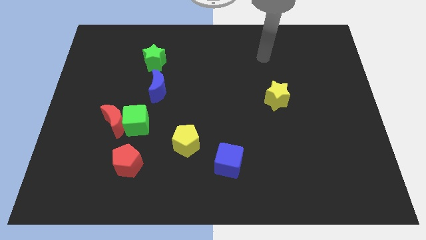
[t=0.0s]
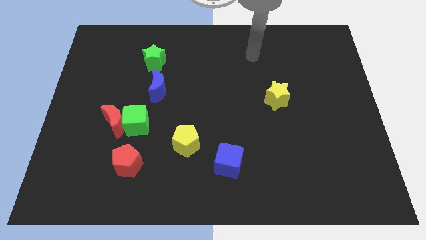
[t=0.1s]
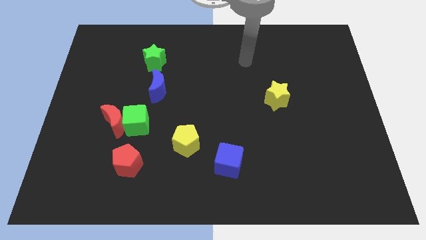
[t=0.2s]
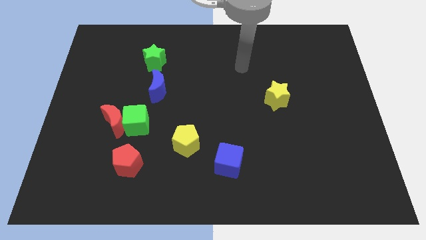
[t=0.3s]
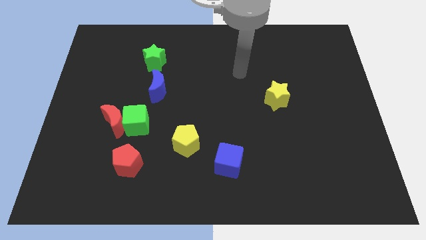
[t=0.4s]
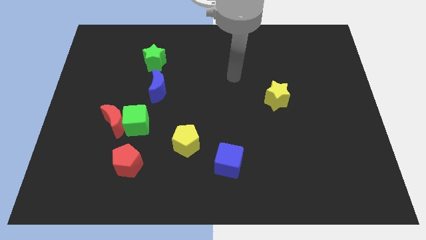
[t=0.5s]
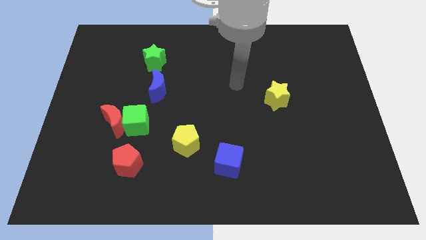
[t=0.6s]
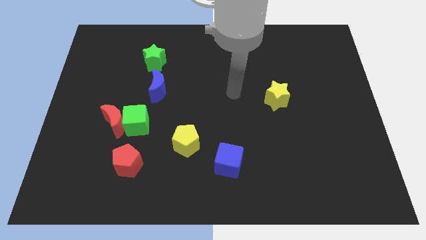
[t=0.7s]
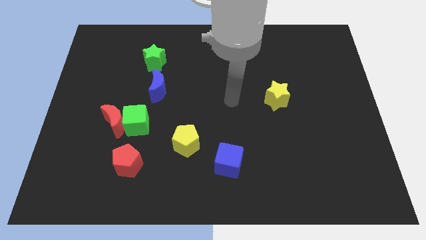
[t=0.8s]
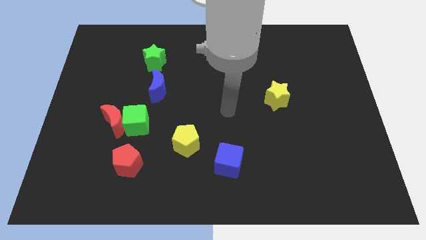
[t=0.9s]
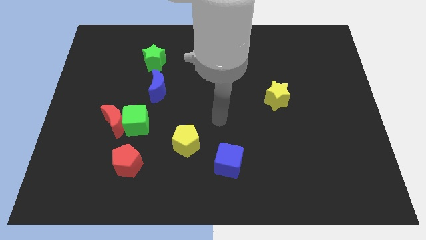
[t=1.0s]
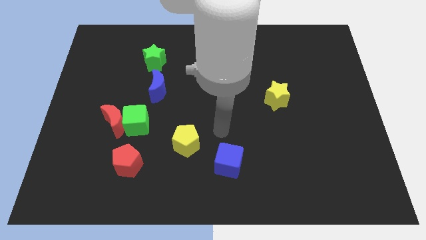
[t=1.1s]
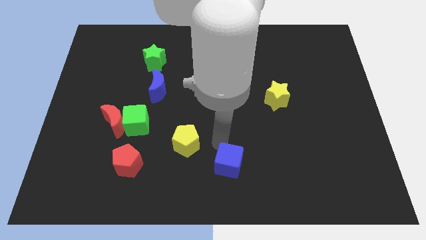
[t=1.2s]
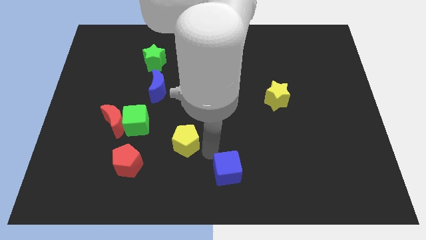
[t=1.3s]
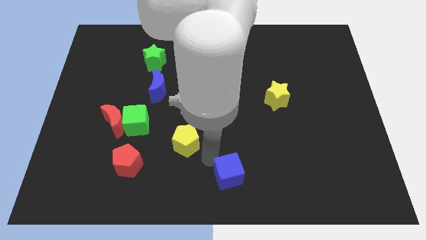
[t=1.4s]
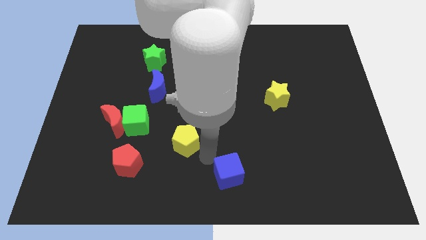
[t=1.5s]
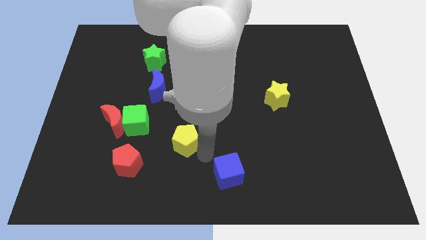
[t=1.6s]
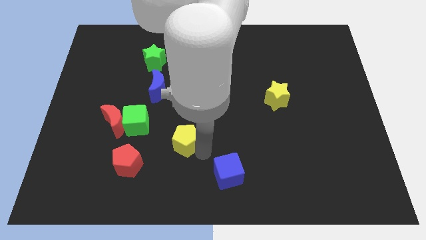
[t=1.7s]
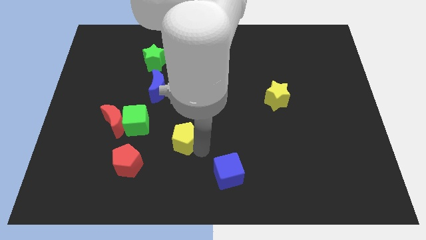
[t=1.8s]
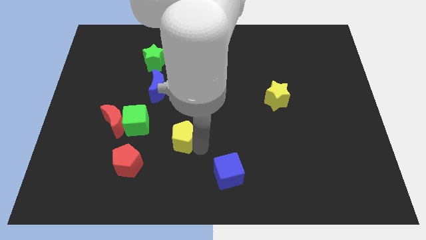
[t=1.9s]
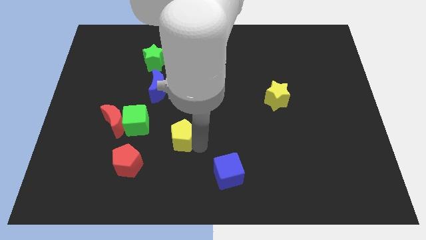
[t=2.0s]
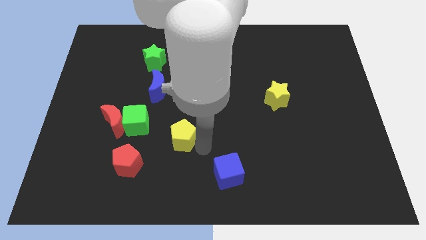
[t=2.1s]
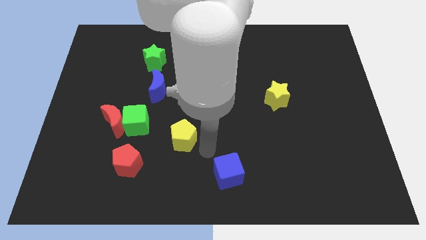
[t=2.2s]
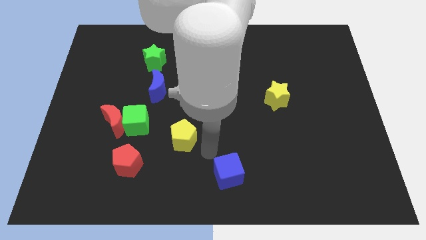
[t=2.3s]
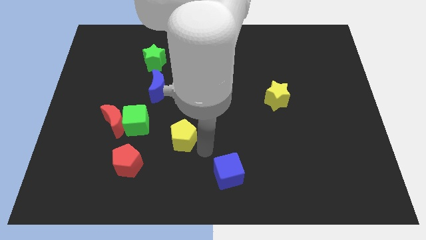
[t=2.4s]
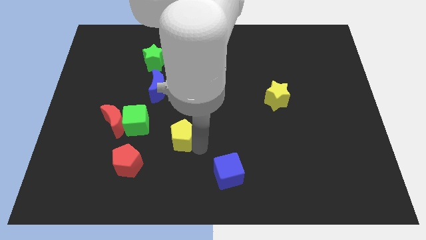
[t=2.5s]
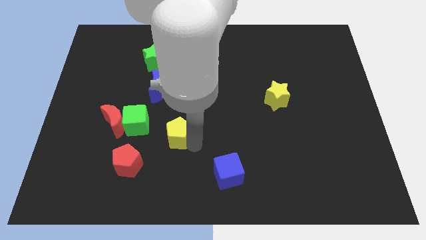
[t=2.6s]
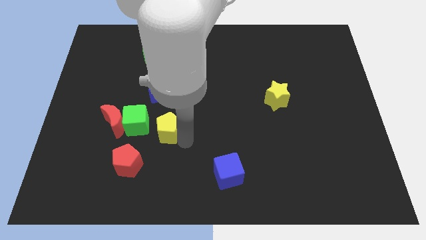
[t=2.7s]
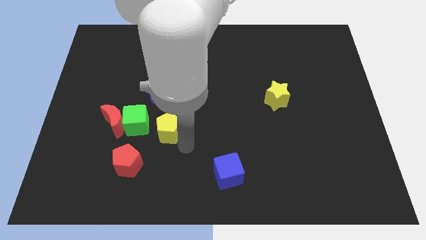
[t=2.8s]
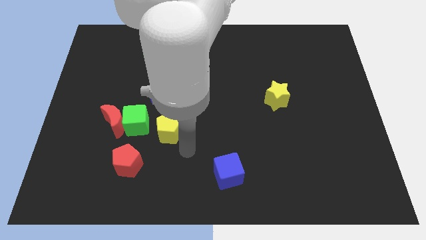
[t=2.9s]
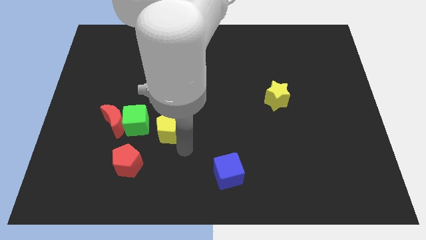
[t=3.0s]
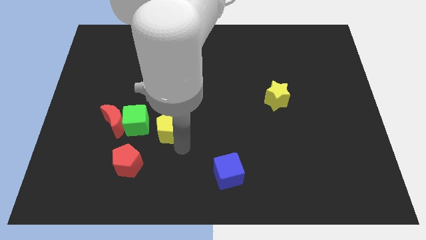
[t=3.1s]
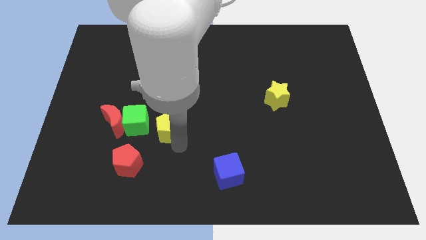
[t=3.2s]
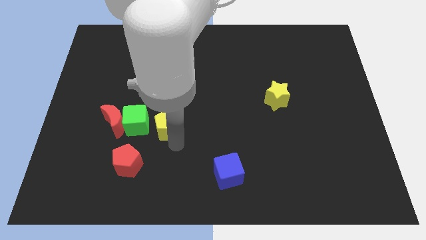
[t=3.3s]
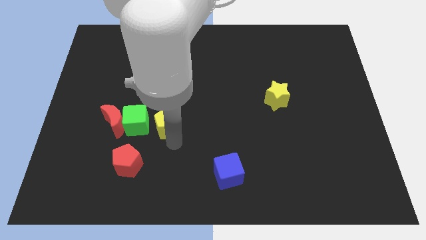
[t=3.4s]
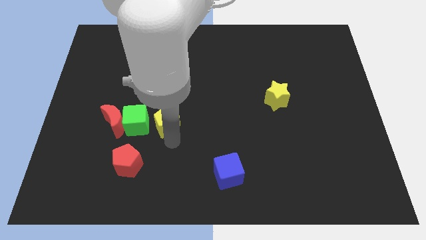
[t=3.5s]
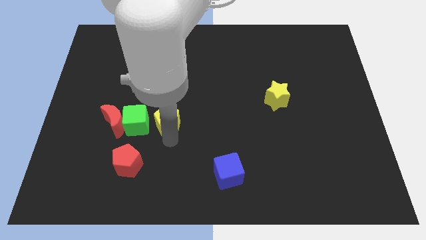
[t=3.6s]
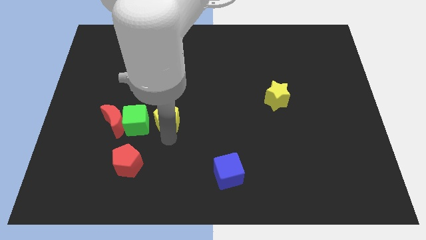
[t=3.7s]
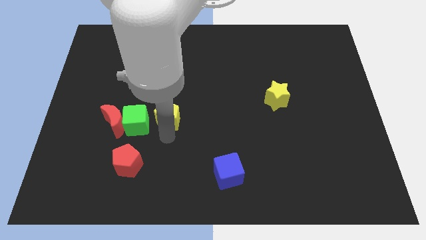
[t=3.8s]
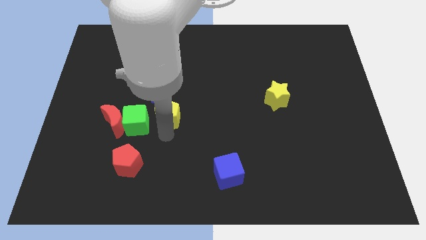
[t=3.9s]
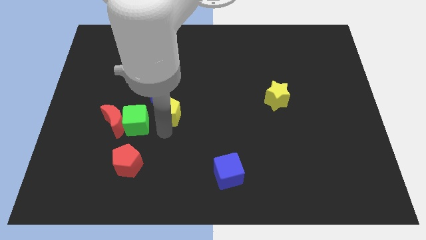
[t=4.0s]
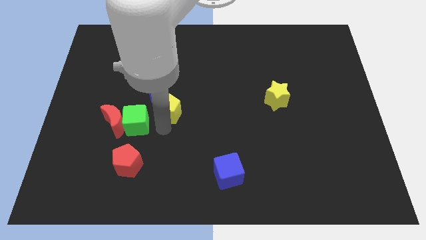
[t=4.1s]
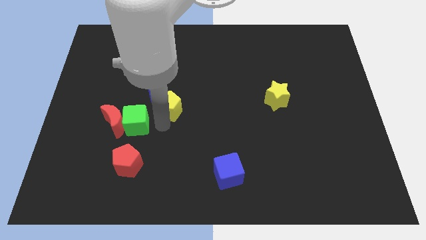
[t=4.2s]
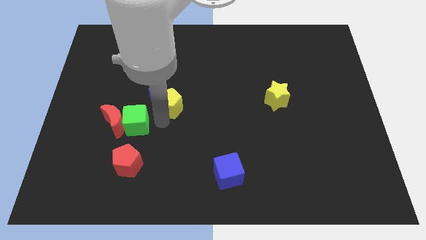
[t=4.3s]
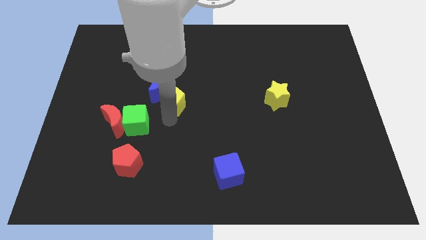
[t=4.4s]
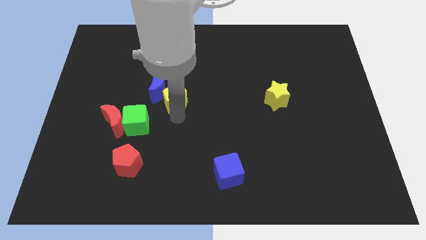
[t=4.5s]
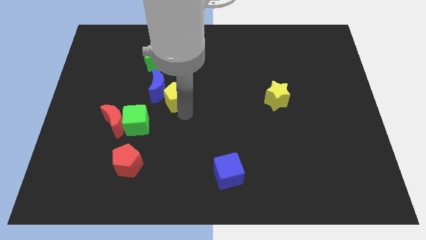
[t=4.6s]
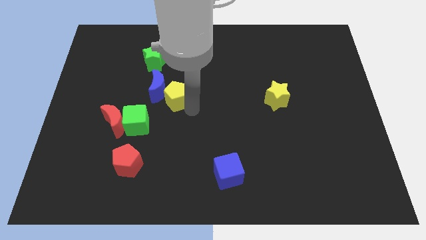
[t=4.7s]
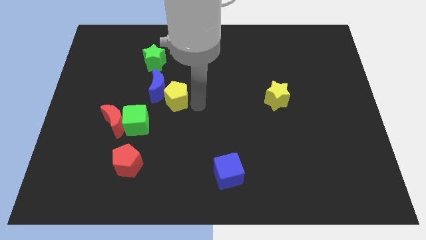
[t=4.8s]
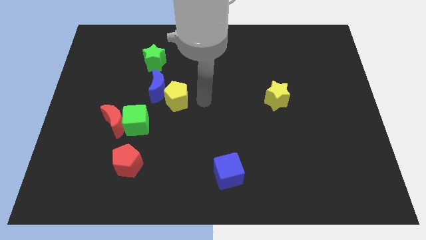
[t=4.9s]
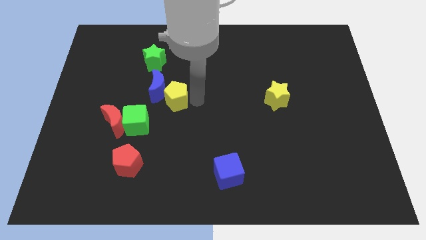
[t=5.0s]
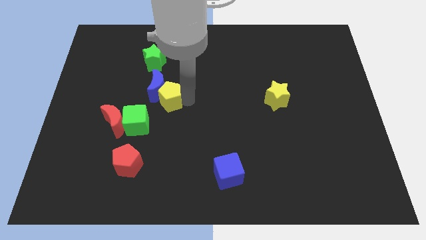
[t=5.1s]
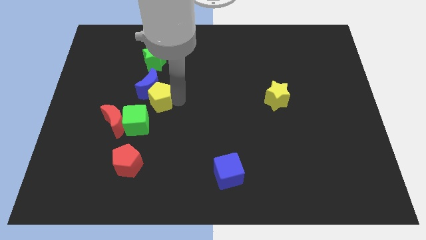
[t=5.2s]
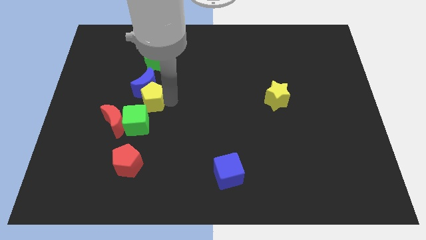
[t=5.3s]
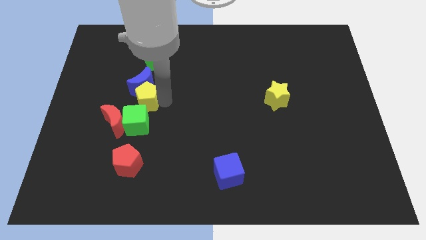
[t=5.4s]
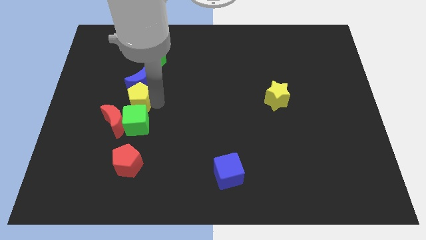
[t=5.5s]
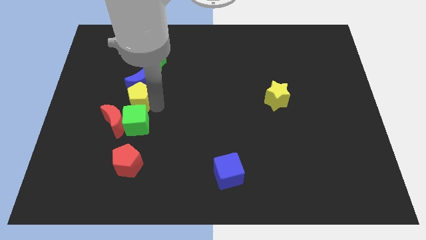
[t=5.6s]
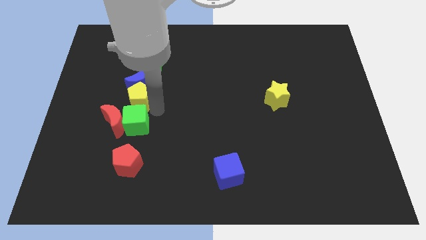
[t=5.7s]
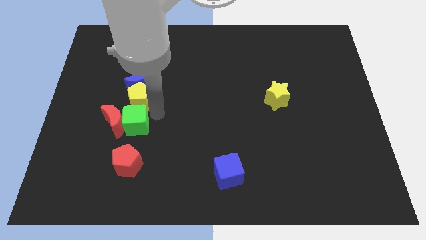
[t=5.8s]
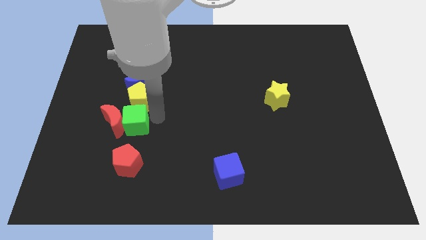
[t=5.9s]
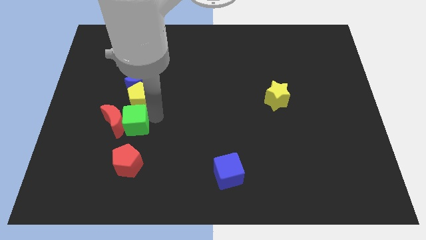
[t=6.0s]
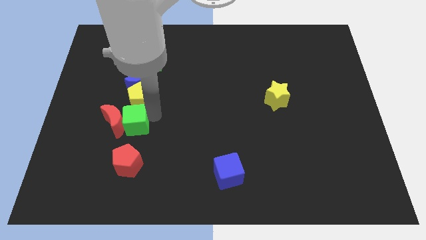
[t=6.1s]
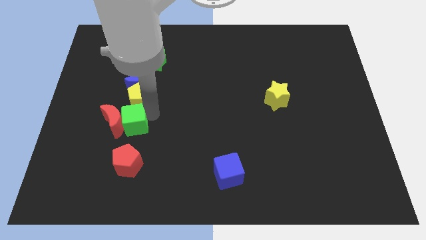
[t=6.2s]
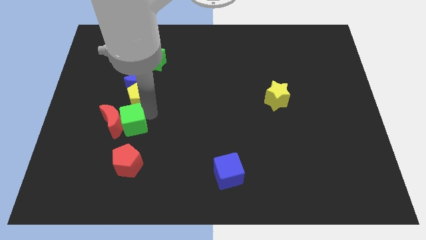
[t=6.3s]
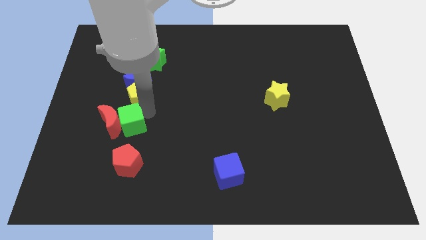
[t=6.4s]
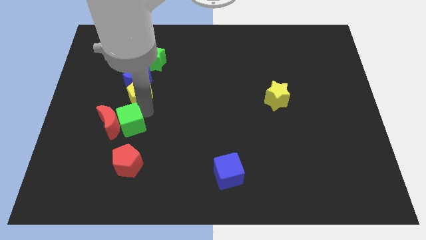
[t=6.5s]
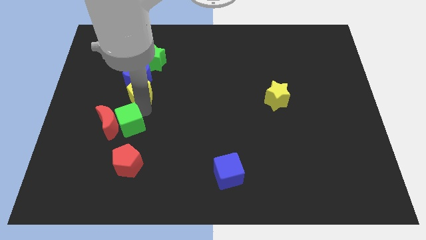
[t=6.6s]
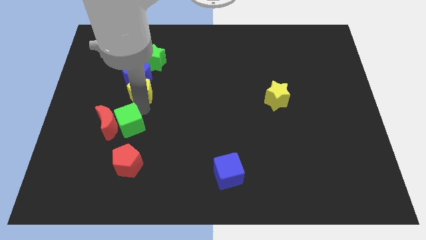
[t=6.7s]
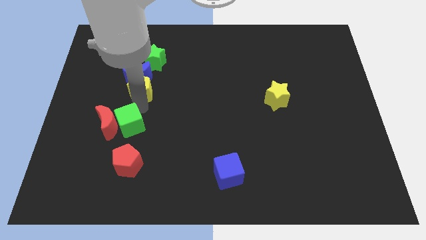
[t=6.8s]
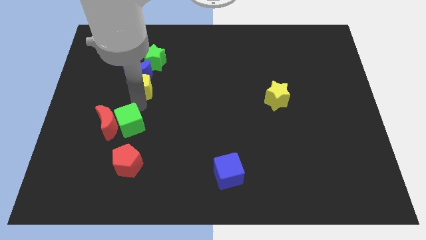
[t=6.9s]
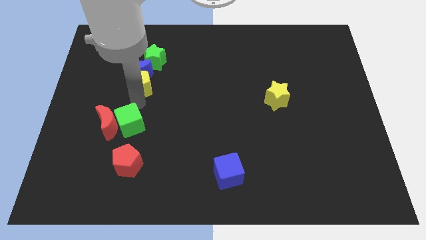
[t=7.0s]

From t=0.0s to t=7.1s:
push the yellow pentagon up and left diagonally

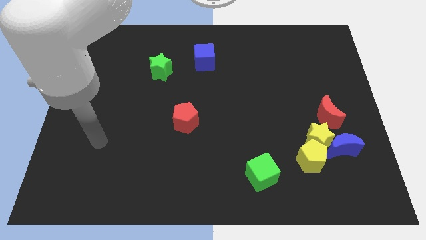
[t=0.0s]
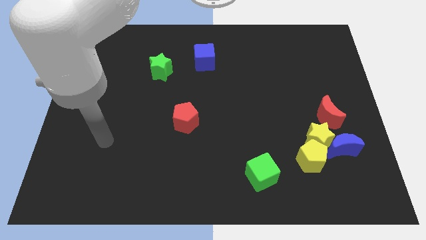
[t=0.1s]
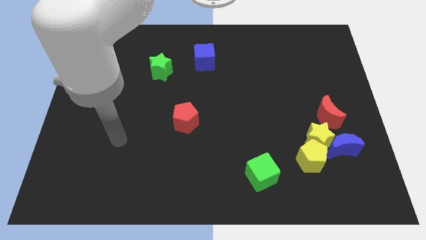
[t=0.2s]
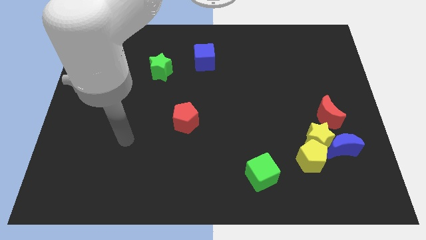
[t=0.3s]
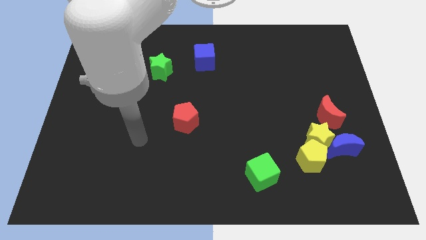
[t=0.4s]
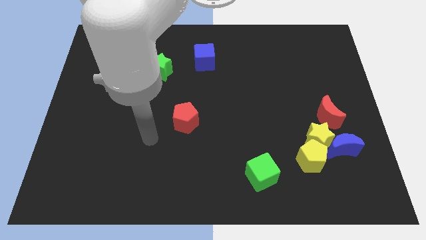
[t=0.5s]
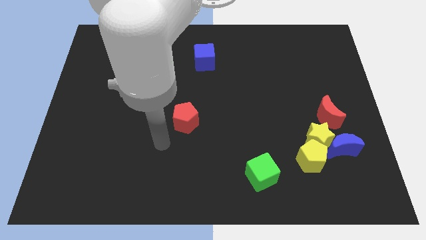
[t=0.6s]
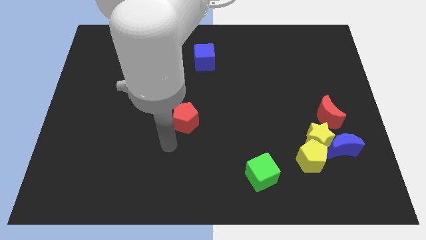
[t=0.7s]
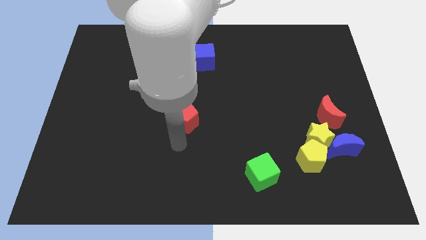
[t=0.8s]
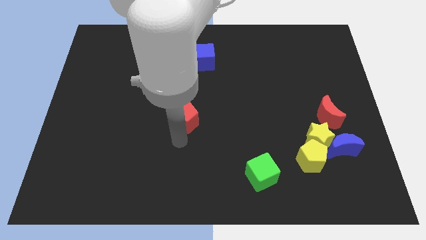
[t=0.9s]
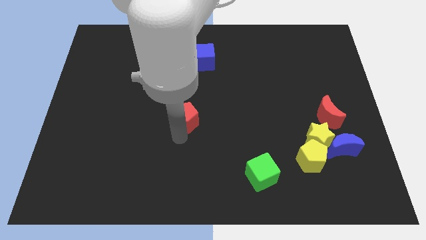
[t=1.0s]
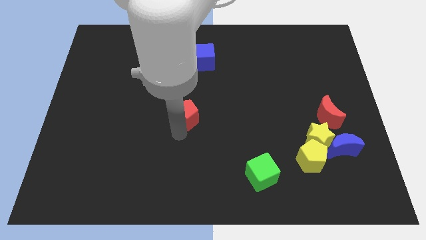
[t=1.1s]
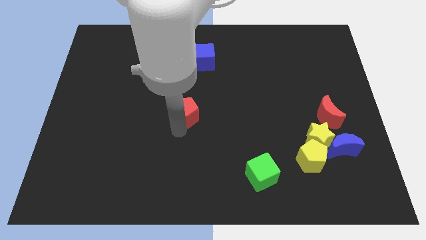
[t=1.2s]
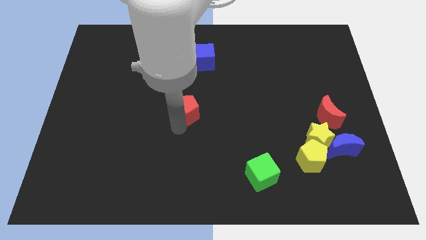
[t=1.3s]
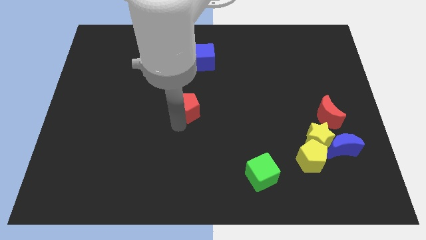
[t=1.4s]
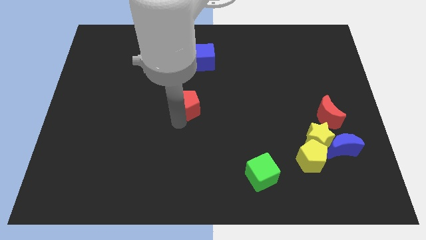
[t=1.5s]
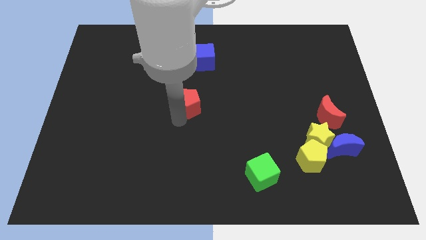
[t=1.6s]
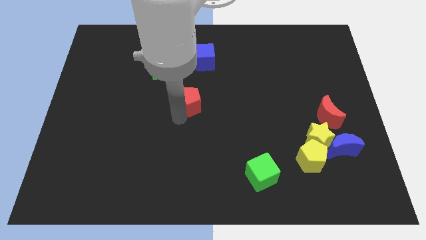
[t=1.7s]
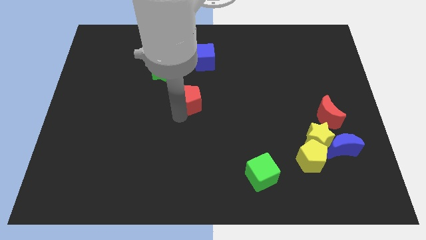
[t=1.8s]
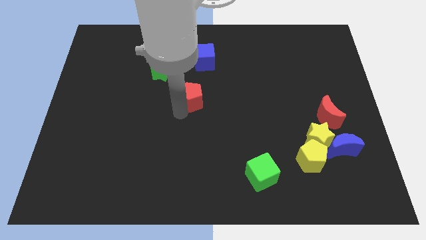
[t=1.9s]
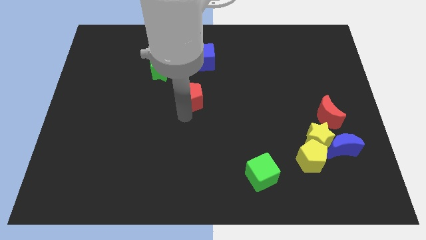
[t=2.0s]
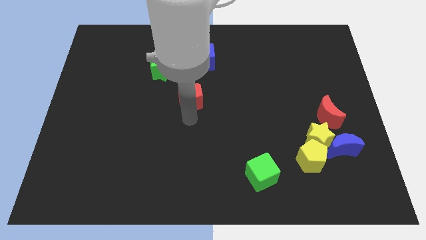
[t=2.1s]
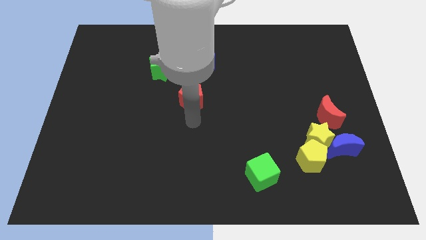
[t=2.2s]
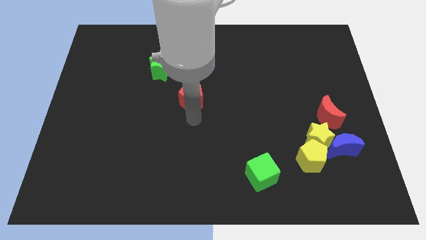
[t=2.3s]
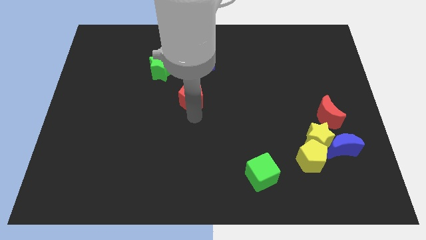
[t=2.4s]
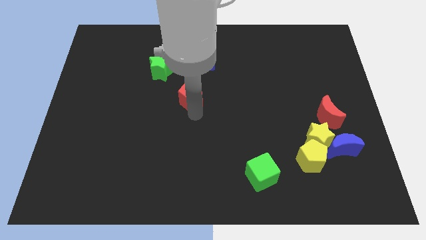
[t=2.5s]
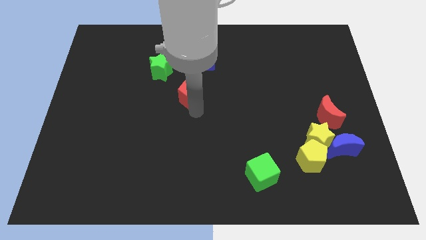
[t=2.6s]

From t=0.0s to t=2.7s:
push the red pentagon slightly up
